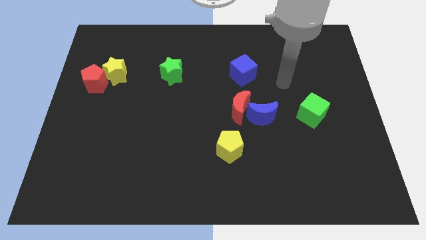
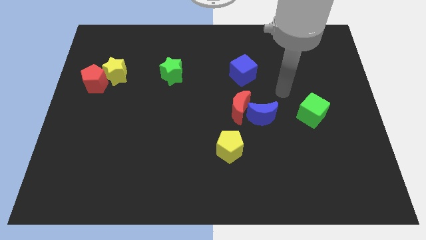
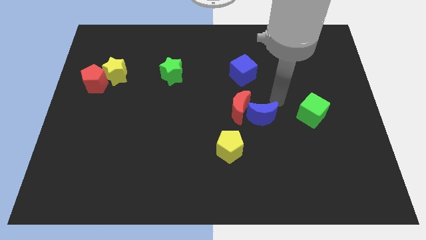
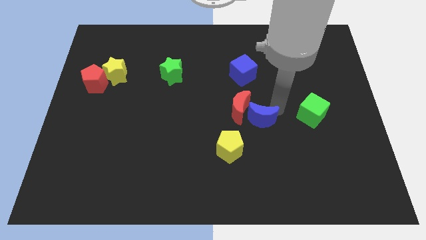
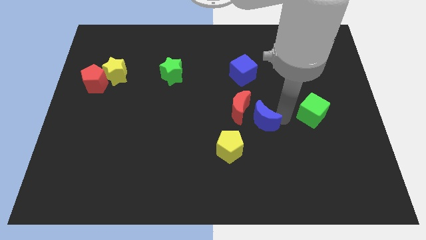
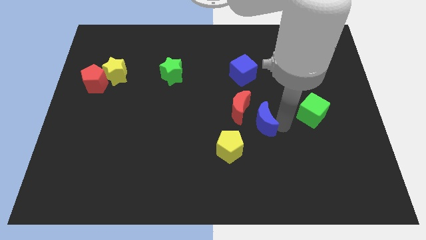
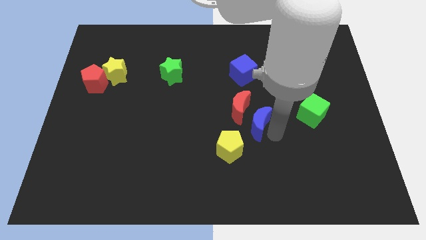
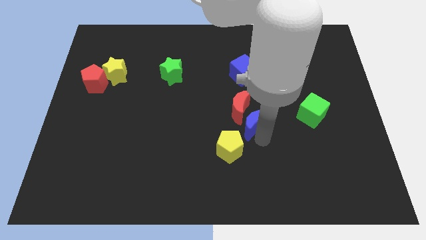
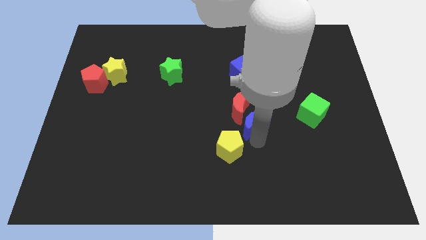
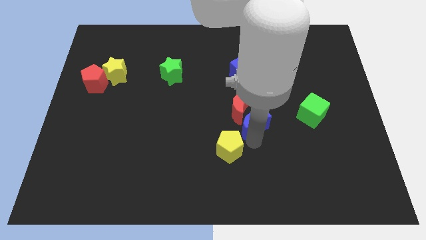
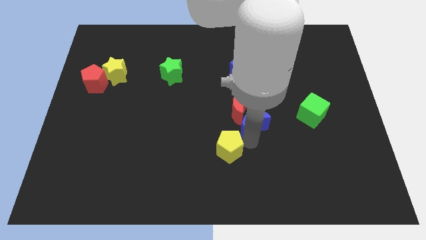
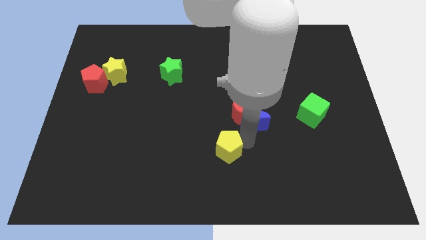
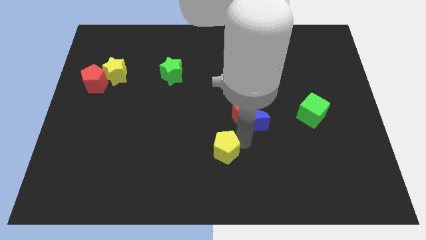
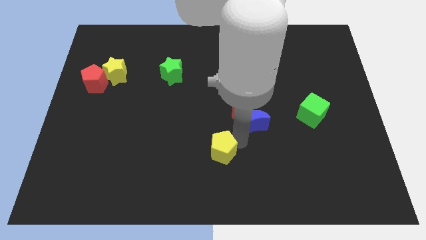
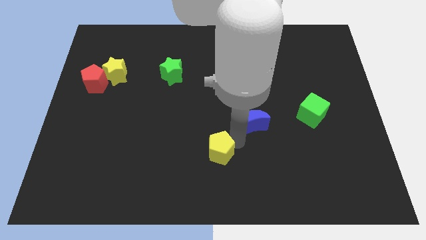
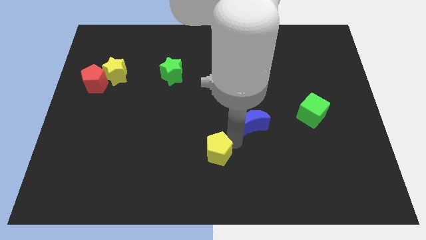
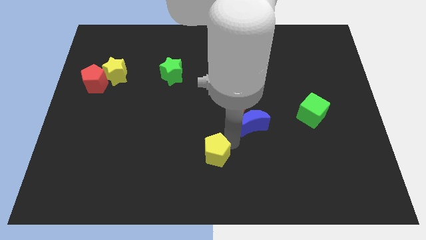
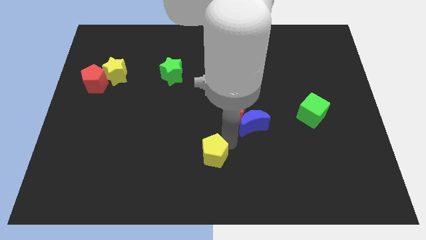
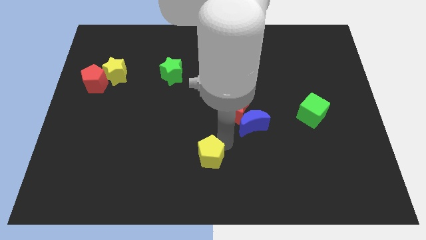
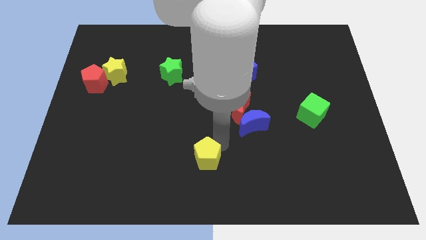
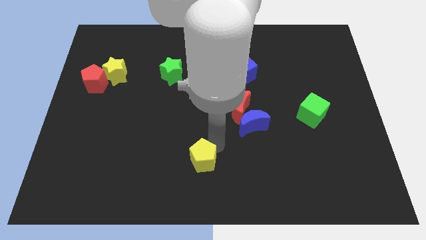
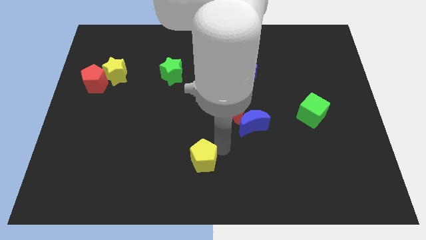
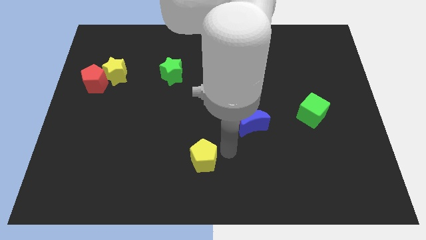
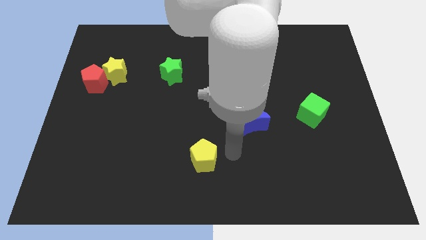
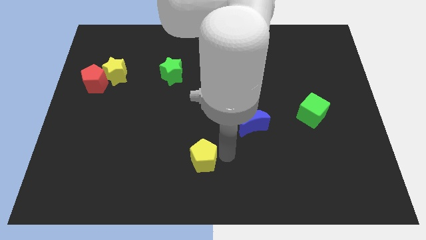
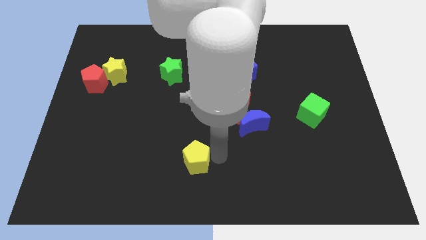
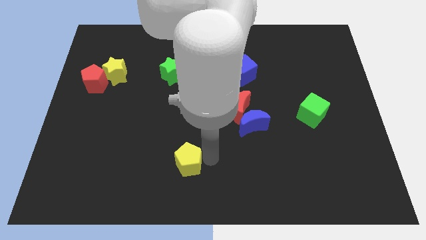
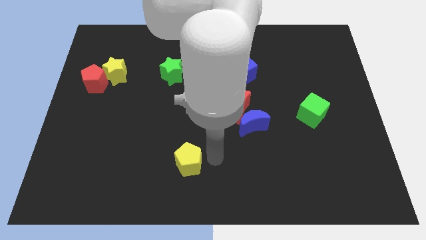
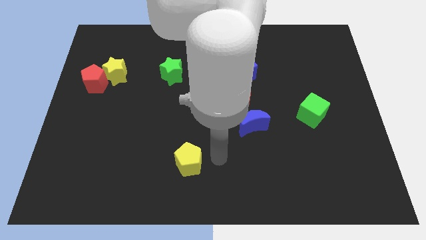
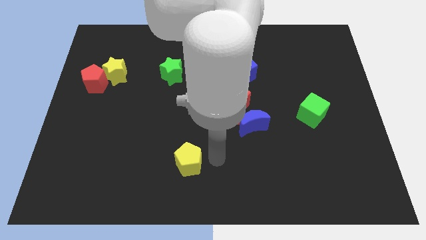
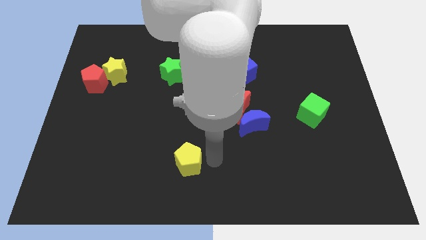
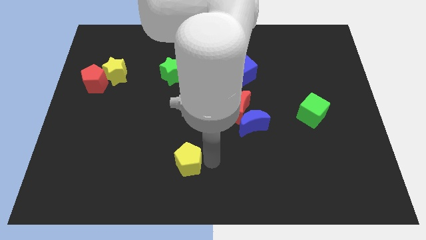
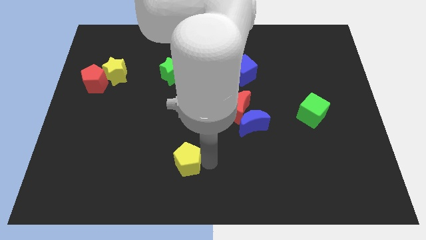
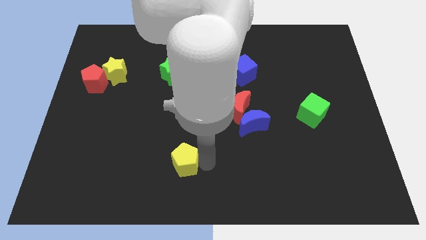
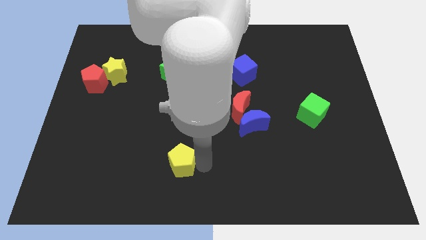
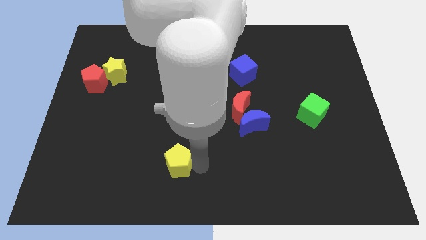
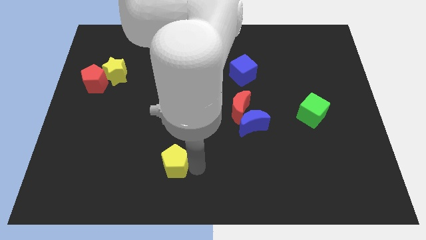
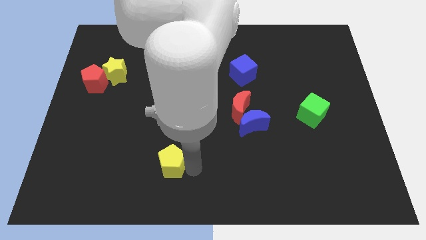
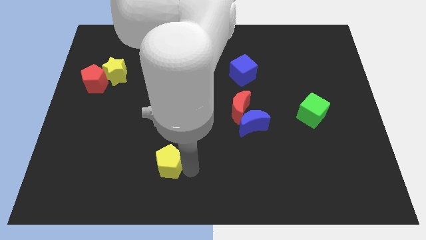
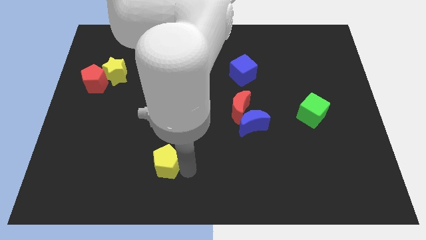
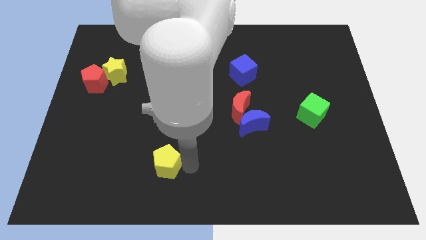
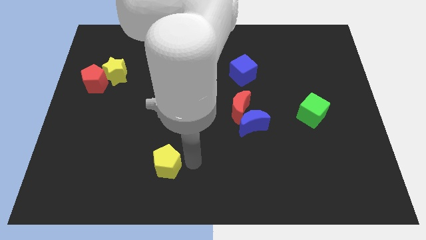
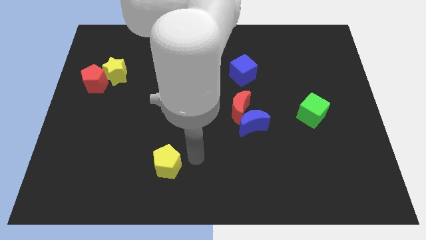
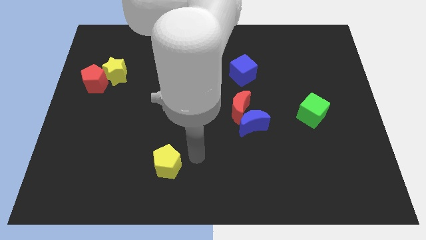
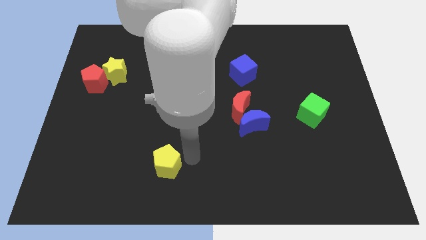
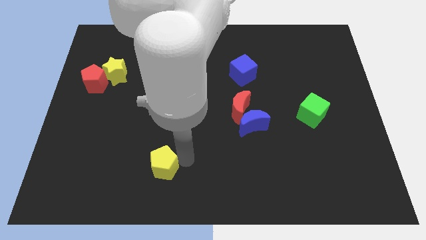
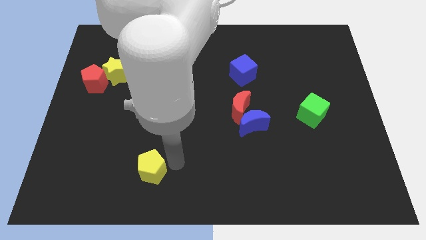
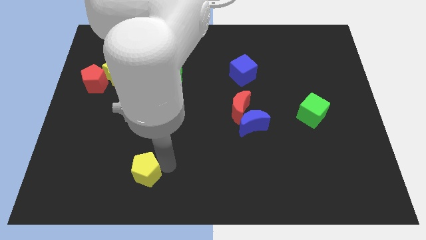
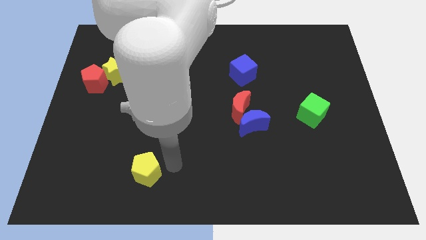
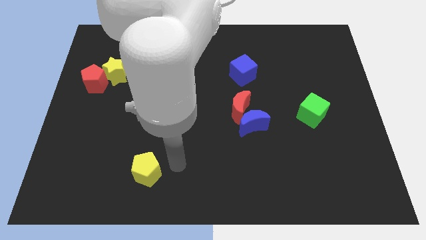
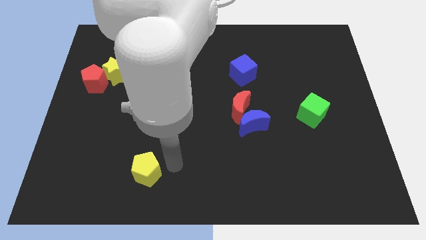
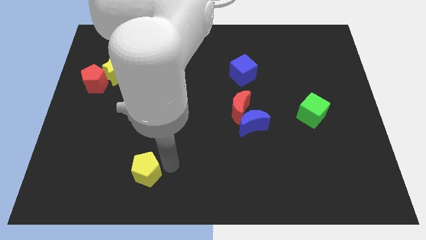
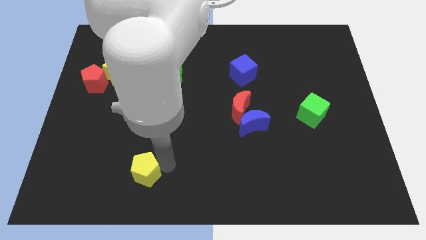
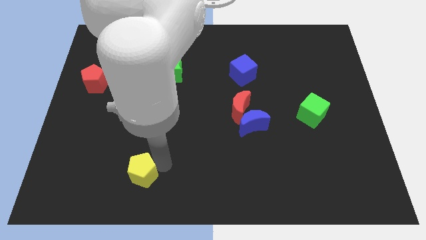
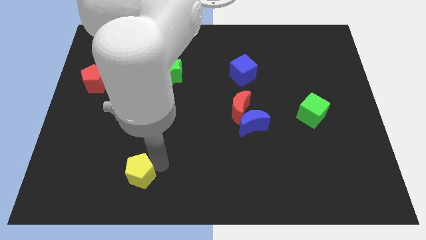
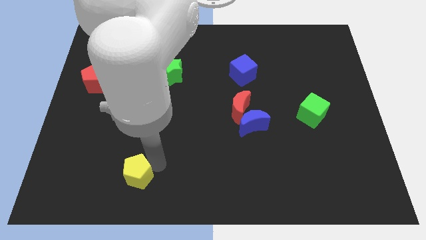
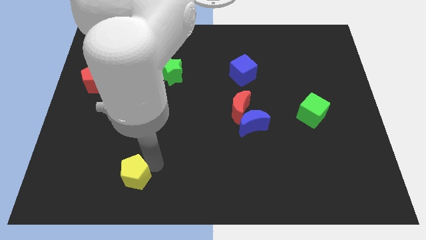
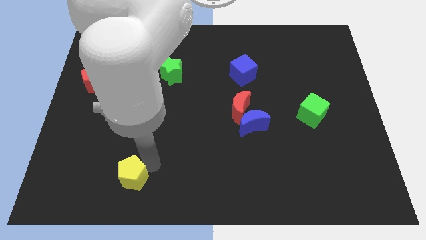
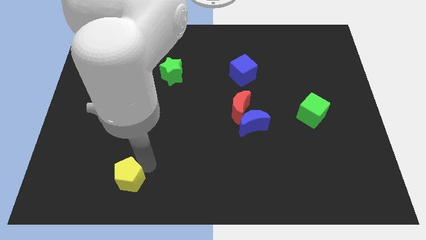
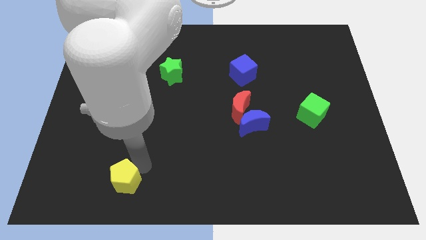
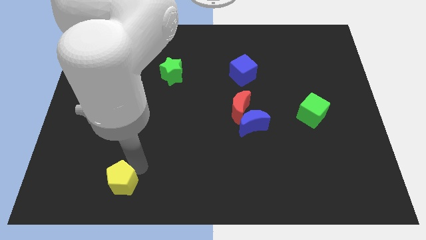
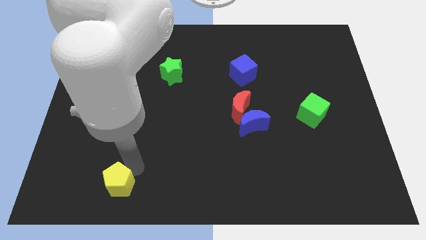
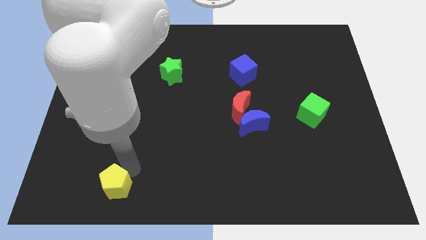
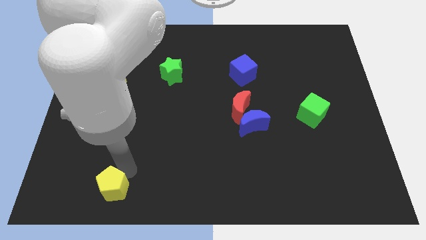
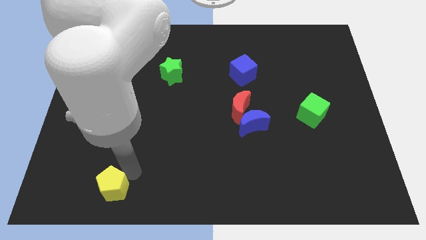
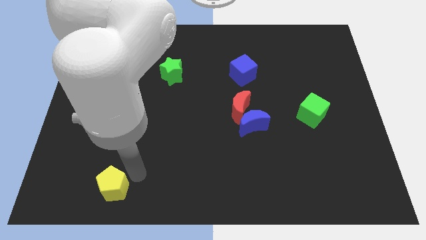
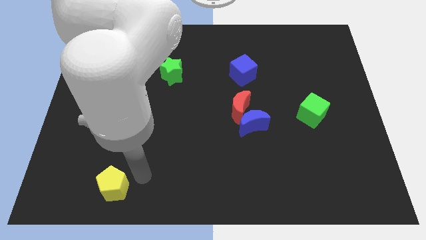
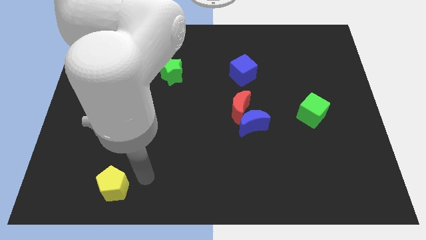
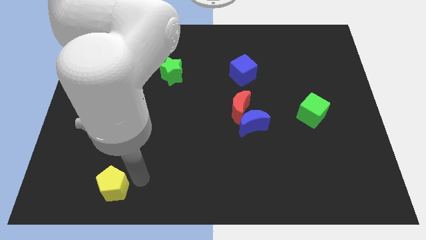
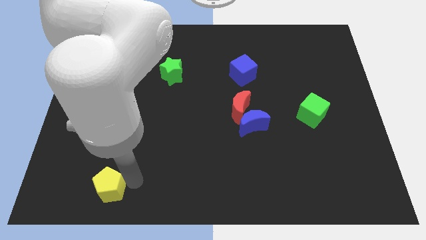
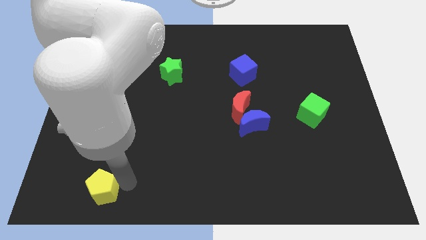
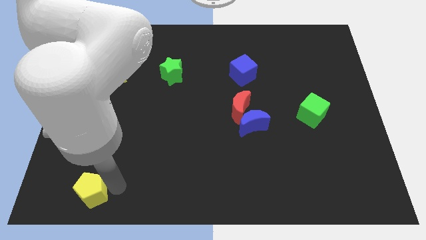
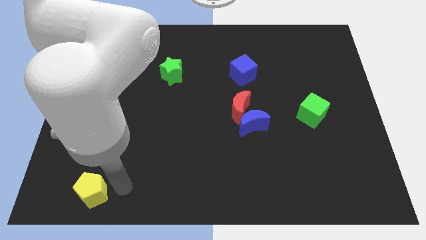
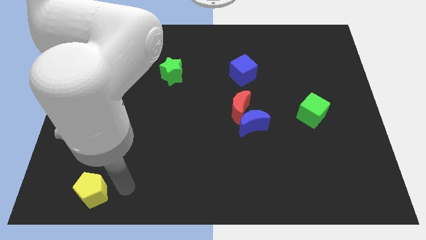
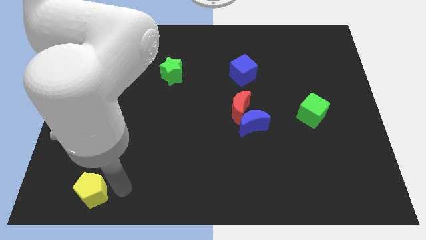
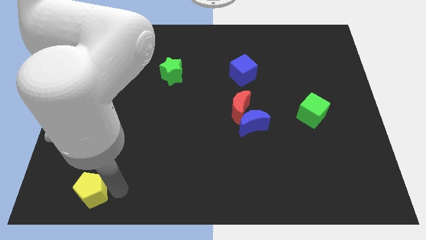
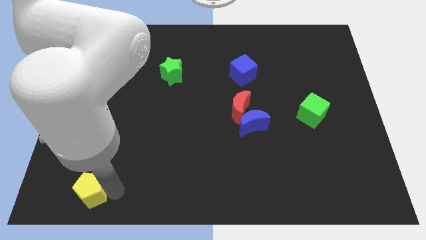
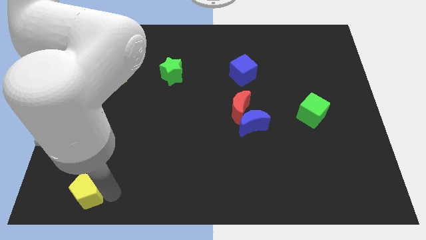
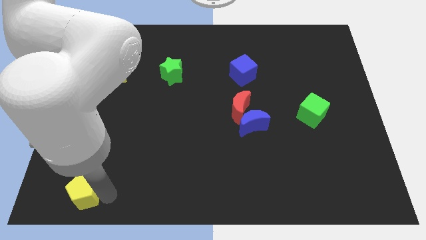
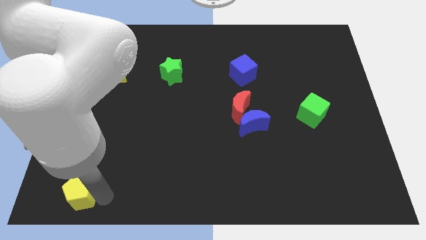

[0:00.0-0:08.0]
slide the yellow pentagon to the bottom left of the board
